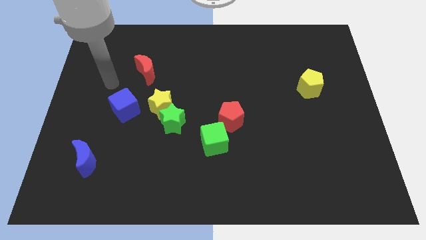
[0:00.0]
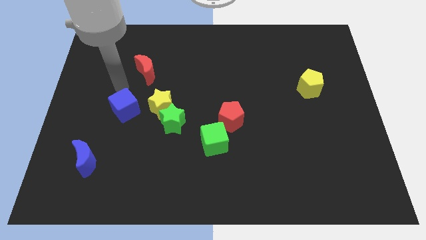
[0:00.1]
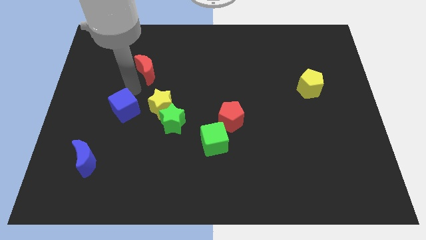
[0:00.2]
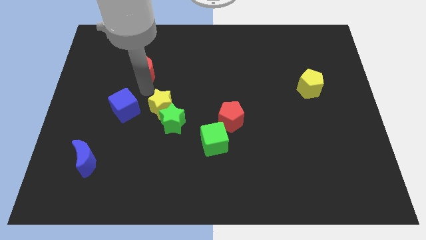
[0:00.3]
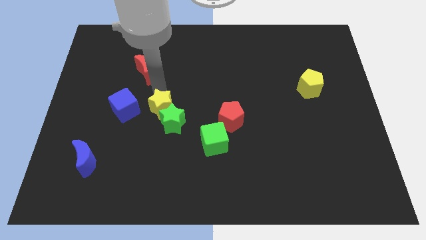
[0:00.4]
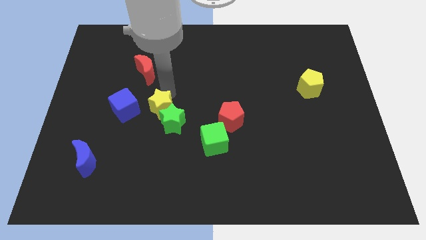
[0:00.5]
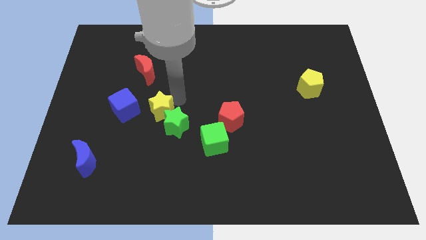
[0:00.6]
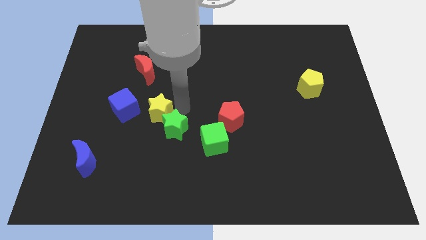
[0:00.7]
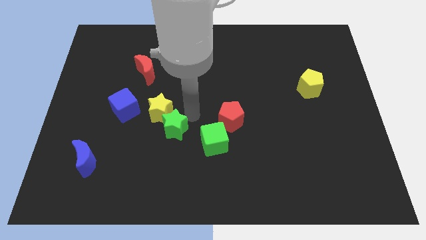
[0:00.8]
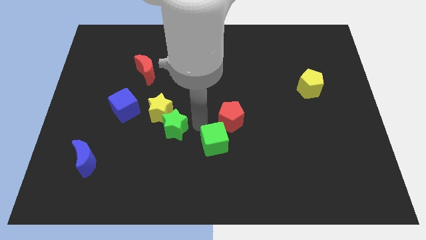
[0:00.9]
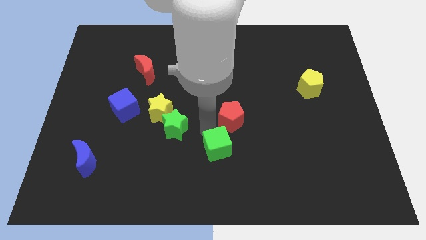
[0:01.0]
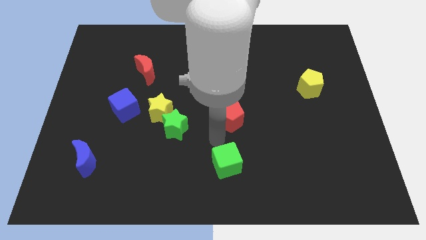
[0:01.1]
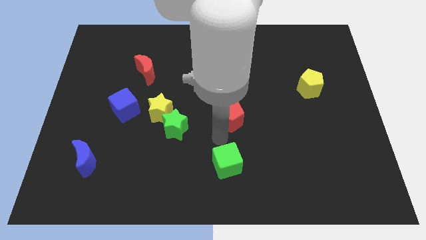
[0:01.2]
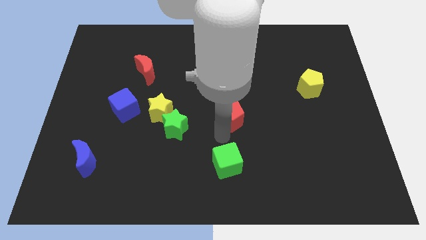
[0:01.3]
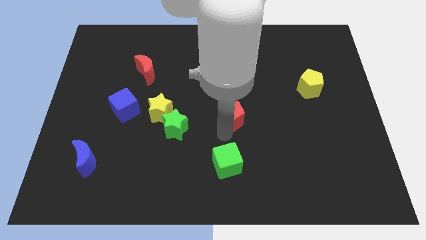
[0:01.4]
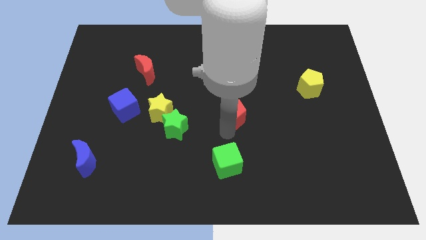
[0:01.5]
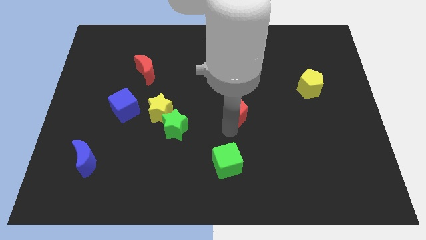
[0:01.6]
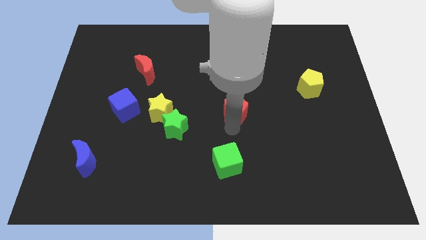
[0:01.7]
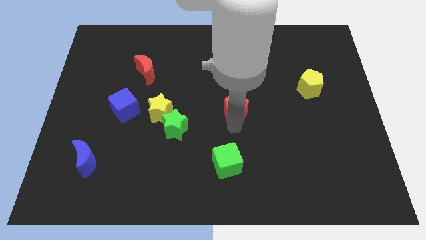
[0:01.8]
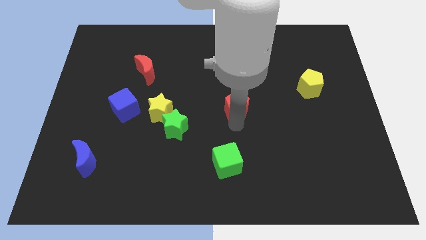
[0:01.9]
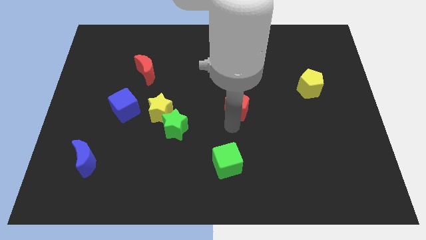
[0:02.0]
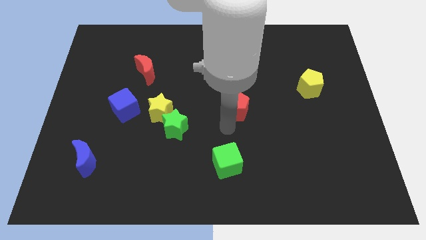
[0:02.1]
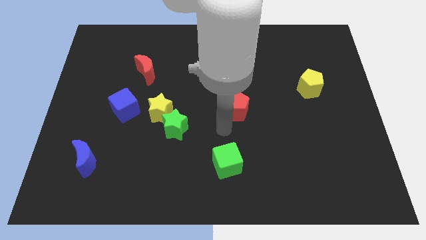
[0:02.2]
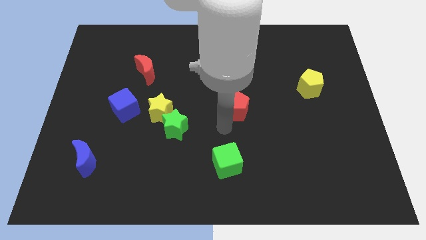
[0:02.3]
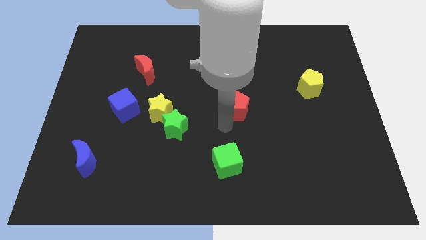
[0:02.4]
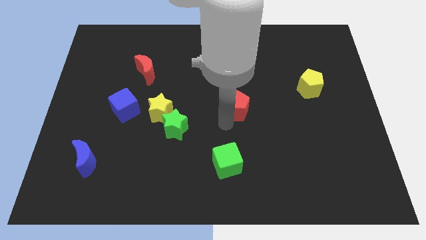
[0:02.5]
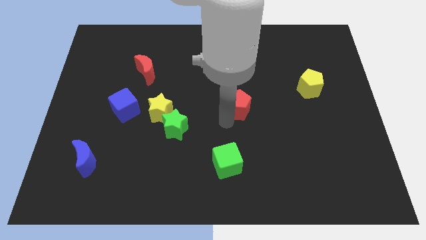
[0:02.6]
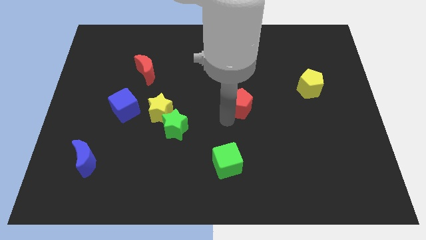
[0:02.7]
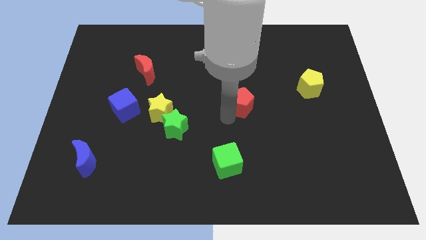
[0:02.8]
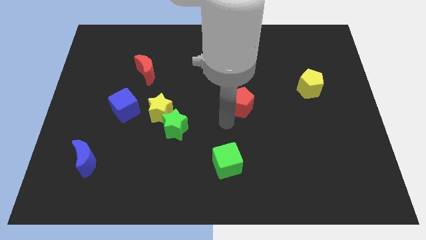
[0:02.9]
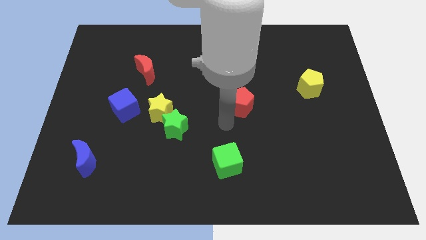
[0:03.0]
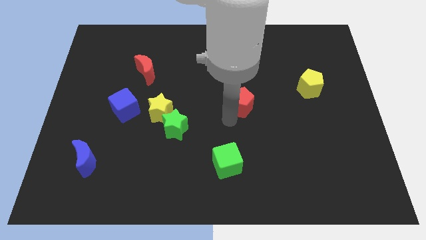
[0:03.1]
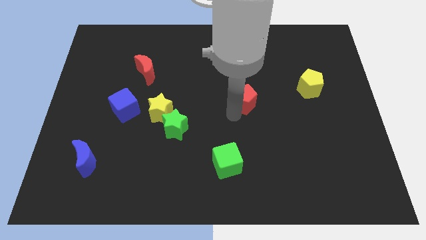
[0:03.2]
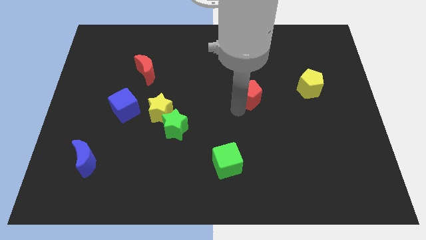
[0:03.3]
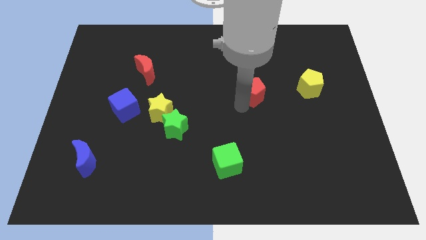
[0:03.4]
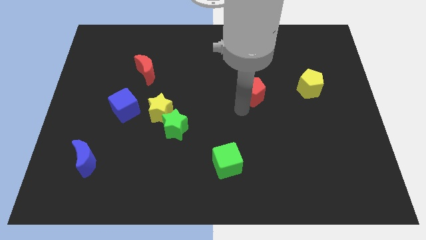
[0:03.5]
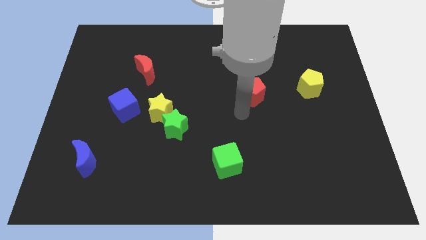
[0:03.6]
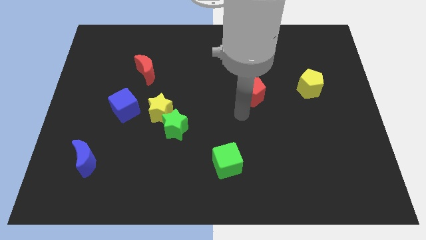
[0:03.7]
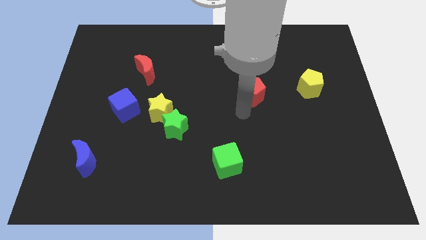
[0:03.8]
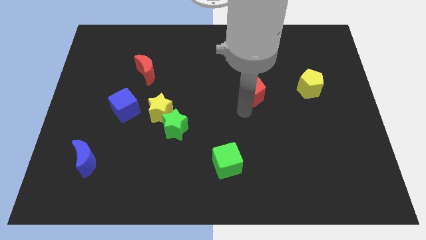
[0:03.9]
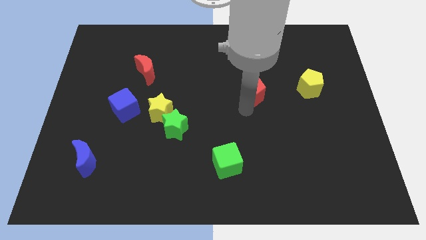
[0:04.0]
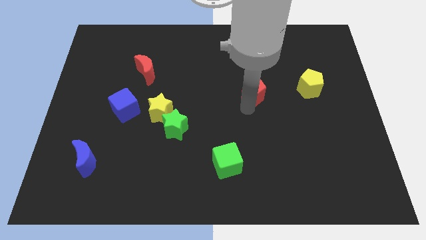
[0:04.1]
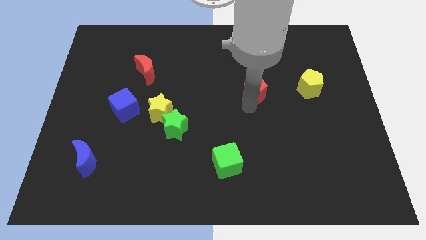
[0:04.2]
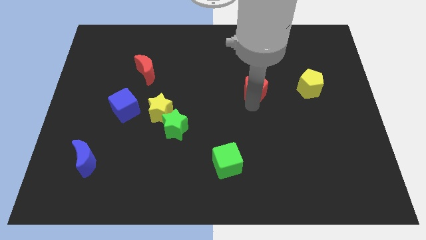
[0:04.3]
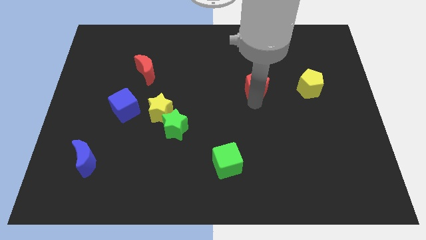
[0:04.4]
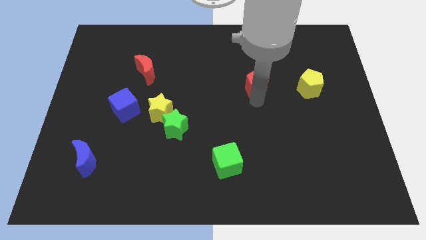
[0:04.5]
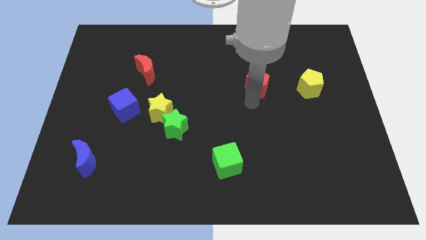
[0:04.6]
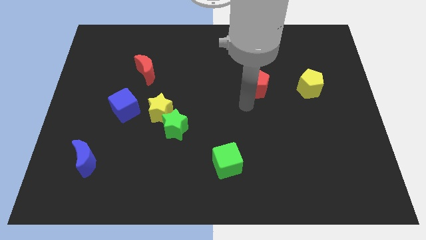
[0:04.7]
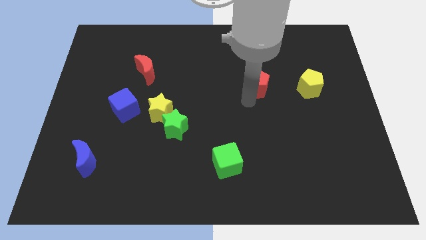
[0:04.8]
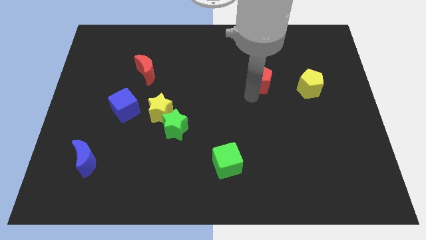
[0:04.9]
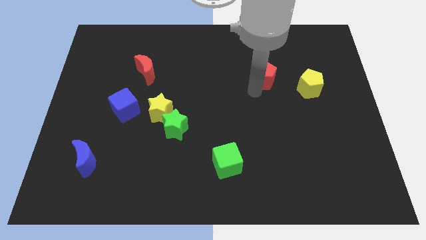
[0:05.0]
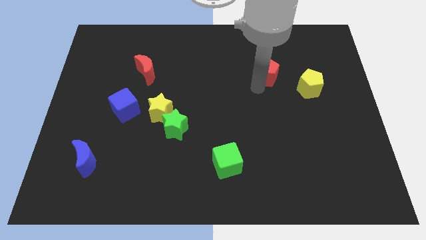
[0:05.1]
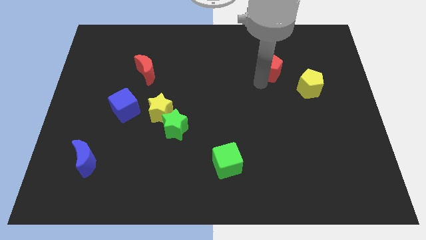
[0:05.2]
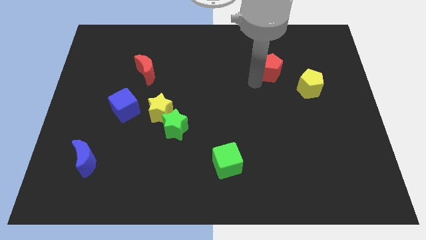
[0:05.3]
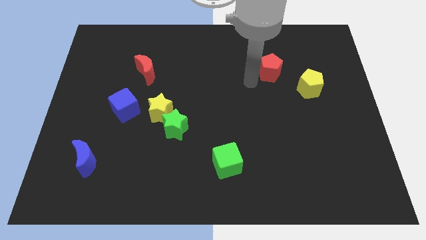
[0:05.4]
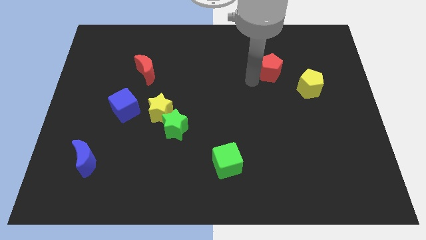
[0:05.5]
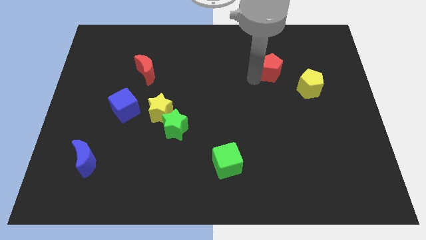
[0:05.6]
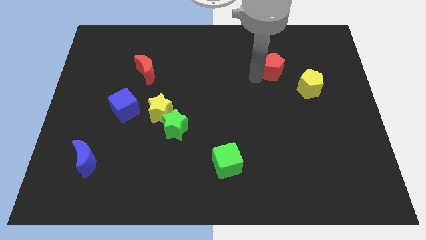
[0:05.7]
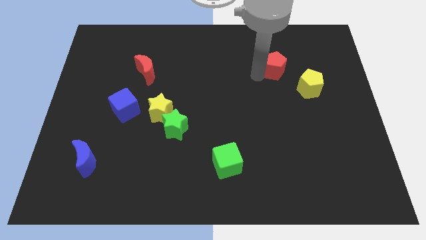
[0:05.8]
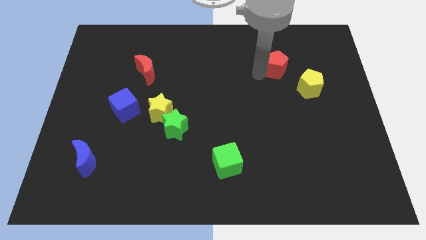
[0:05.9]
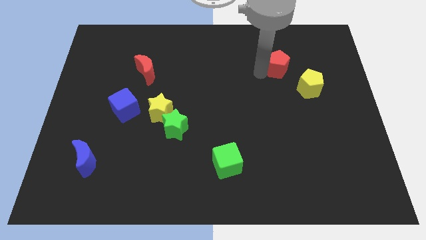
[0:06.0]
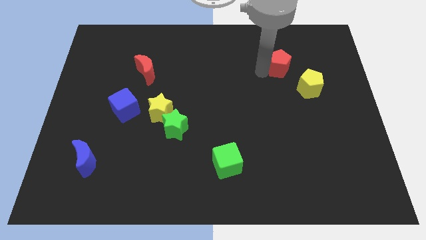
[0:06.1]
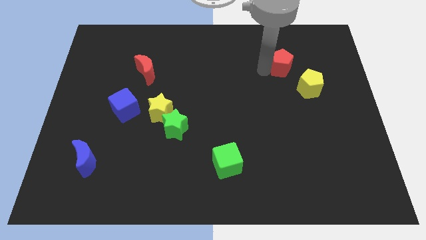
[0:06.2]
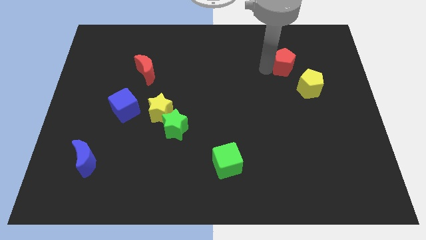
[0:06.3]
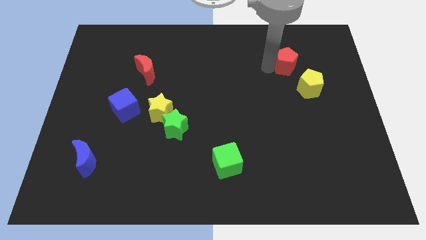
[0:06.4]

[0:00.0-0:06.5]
move the red pentagon to the top of the yellow pentagon

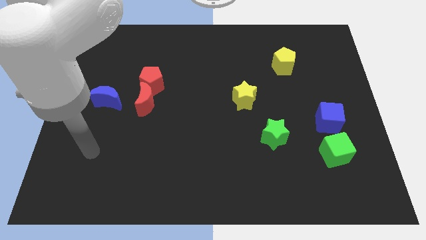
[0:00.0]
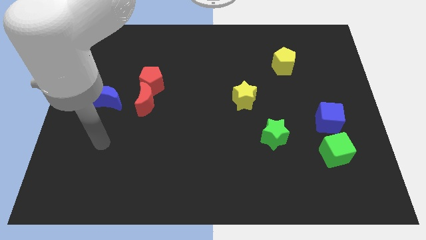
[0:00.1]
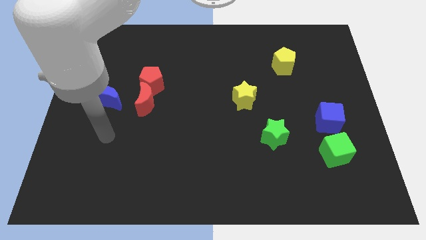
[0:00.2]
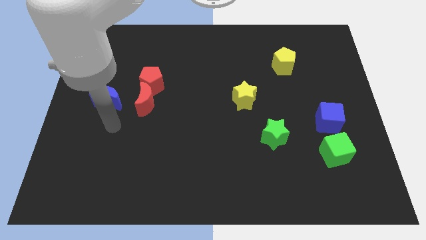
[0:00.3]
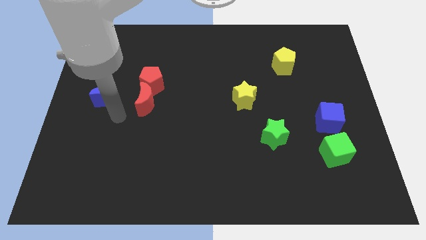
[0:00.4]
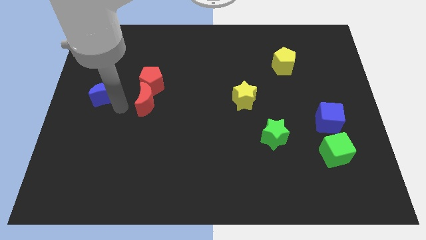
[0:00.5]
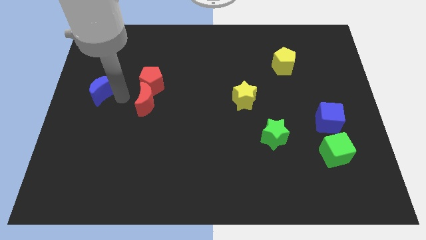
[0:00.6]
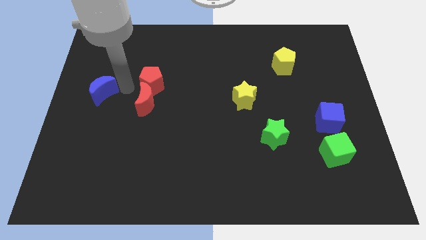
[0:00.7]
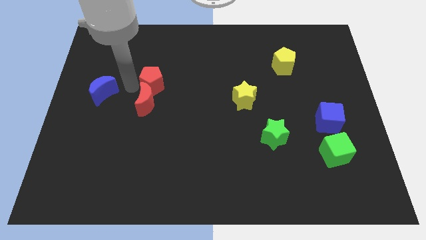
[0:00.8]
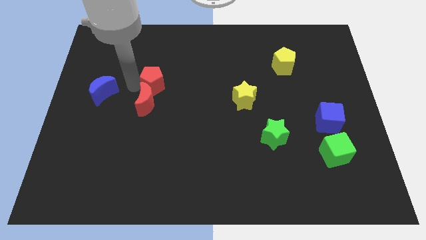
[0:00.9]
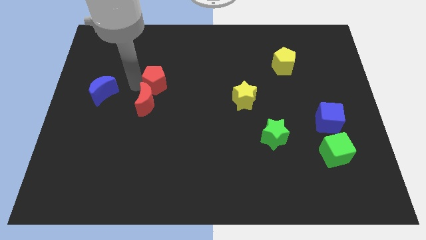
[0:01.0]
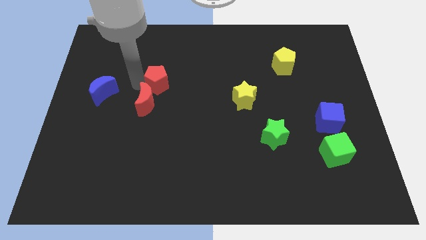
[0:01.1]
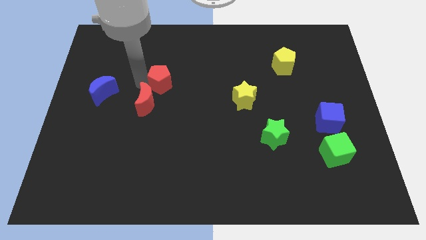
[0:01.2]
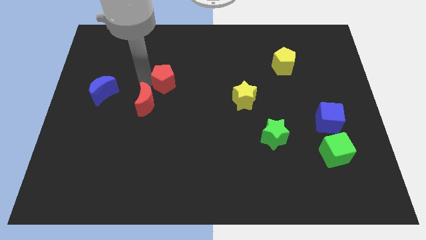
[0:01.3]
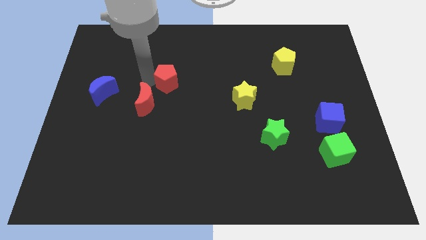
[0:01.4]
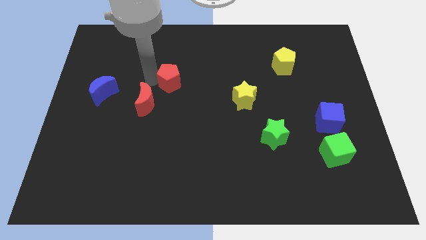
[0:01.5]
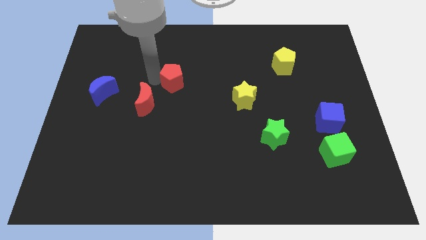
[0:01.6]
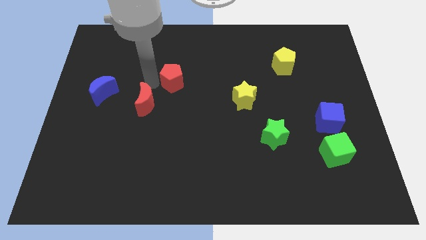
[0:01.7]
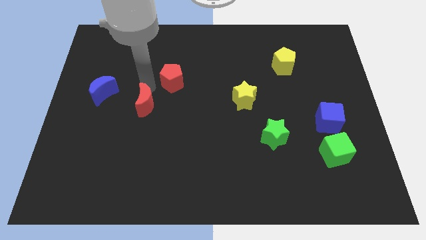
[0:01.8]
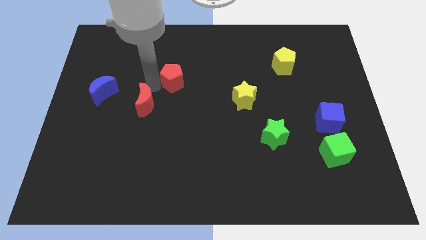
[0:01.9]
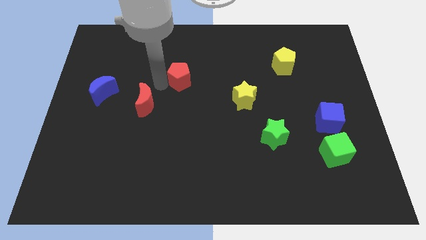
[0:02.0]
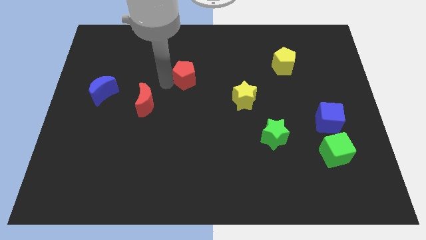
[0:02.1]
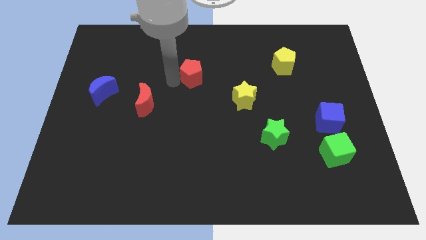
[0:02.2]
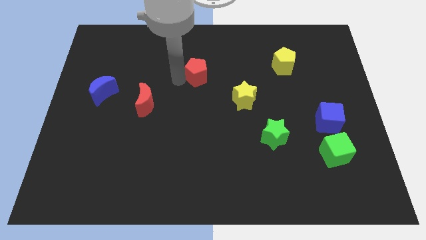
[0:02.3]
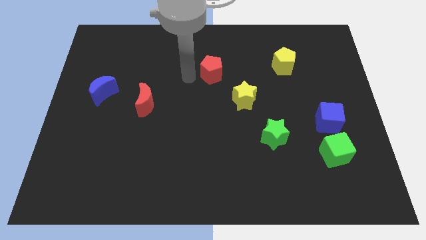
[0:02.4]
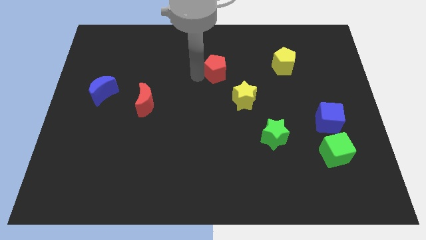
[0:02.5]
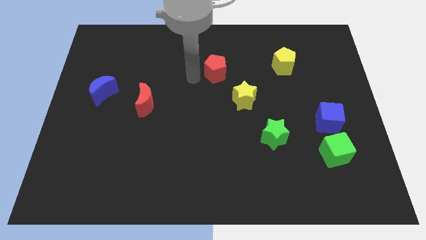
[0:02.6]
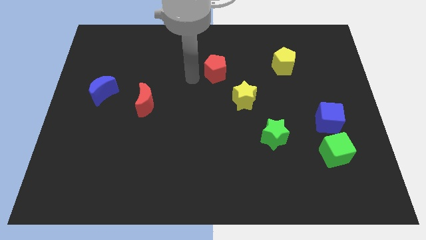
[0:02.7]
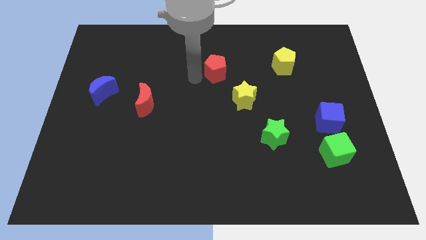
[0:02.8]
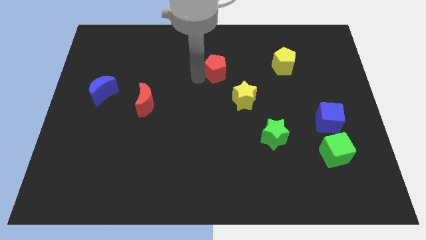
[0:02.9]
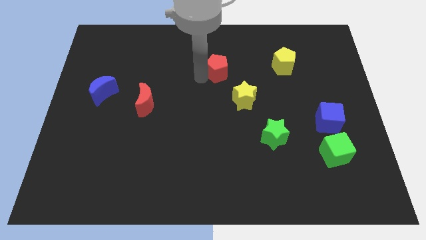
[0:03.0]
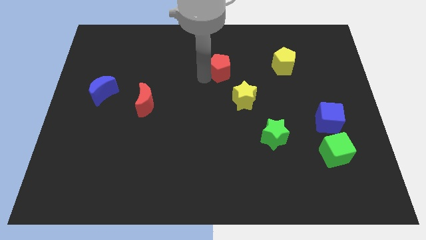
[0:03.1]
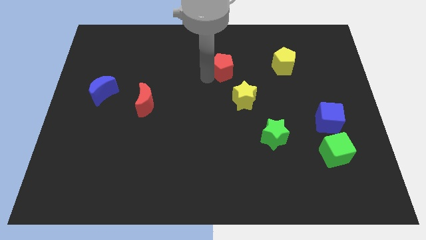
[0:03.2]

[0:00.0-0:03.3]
slide the red pentagon to the left of the yellow pentagon
